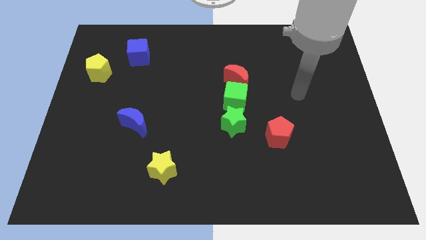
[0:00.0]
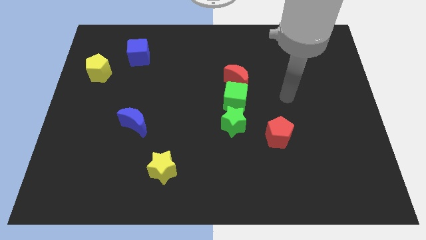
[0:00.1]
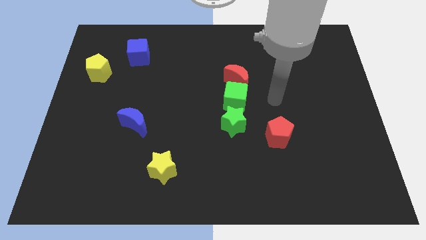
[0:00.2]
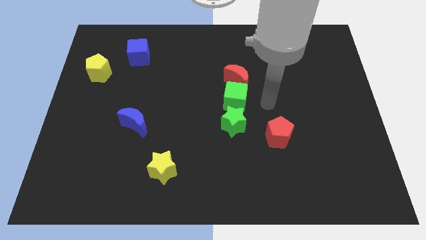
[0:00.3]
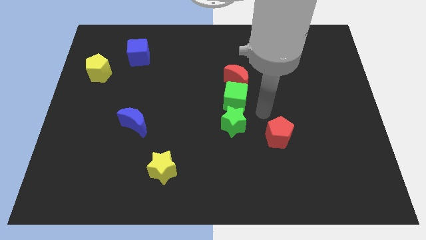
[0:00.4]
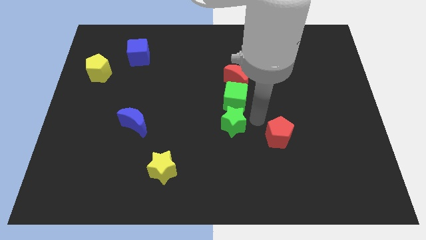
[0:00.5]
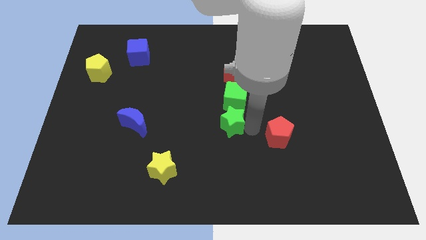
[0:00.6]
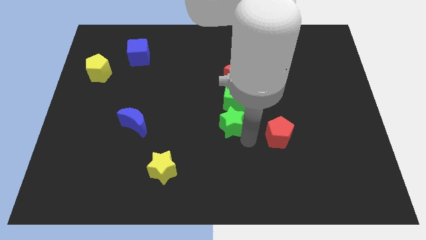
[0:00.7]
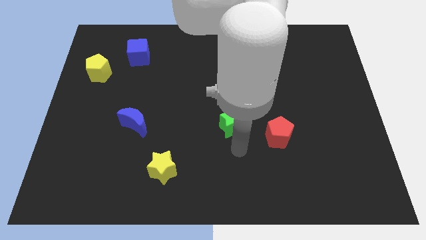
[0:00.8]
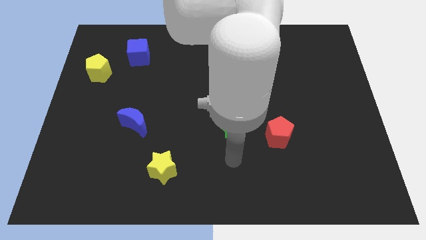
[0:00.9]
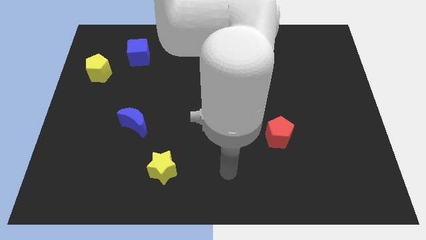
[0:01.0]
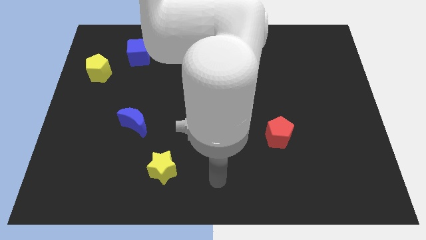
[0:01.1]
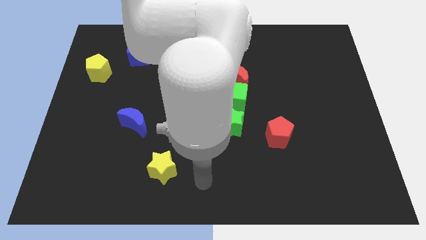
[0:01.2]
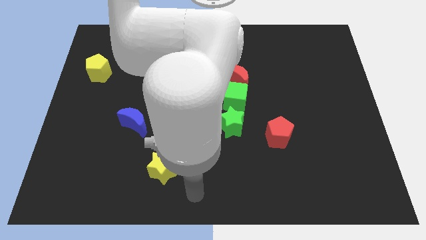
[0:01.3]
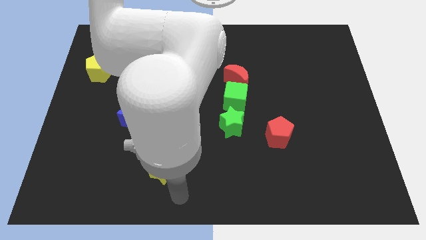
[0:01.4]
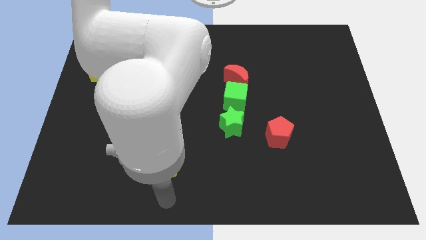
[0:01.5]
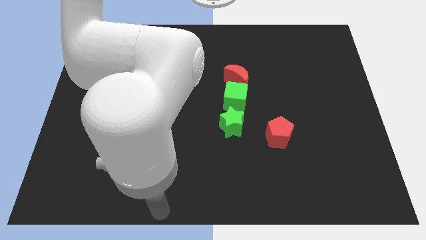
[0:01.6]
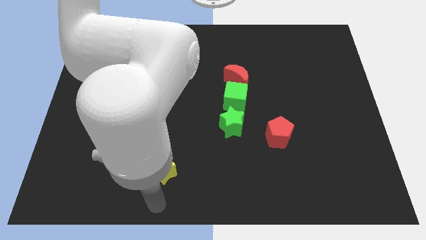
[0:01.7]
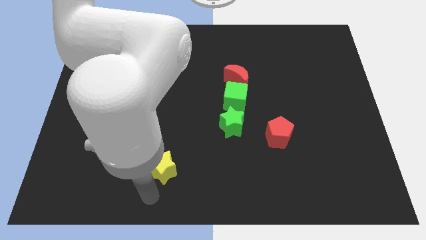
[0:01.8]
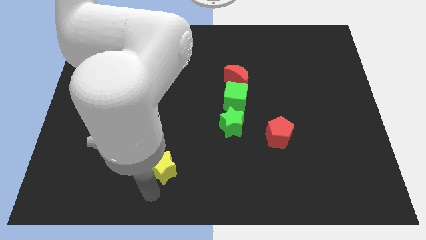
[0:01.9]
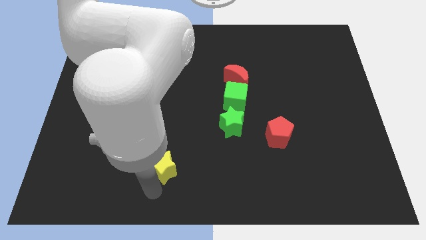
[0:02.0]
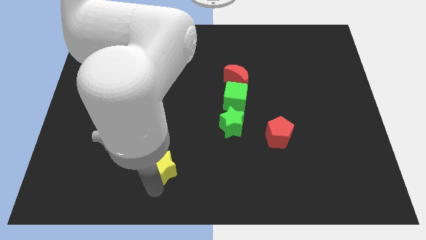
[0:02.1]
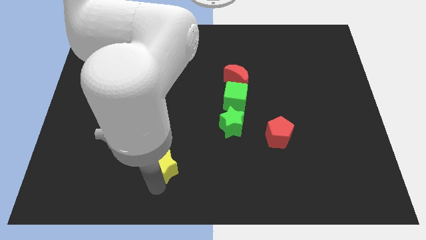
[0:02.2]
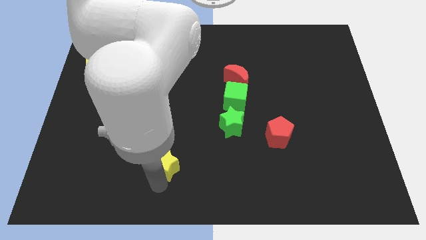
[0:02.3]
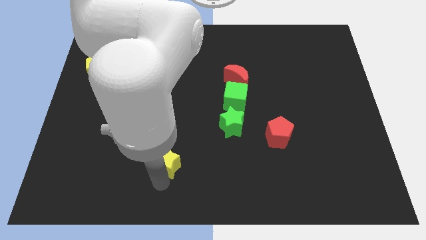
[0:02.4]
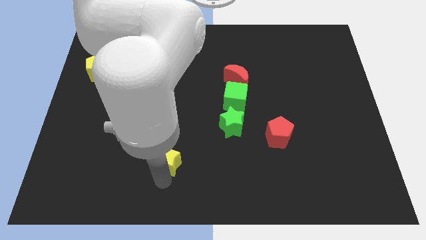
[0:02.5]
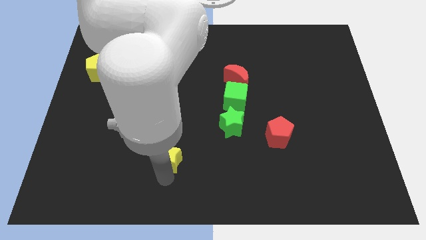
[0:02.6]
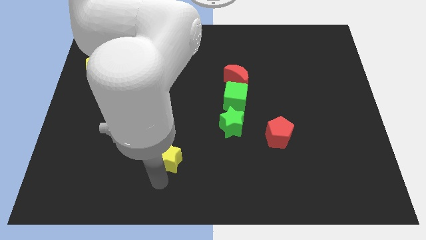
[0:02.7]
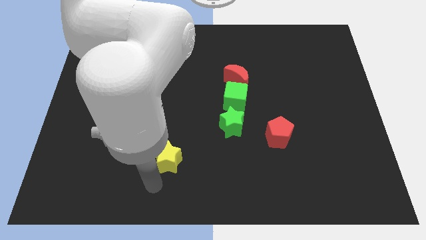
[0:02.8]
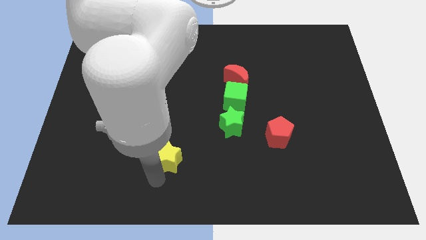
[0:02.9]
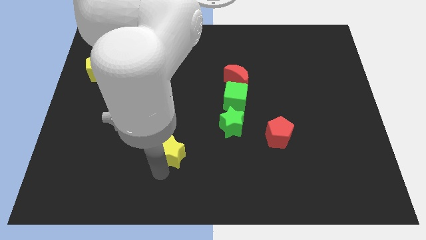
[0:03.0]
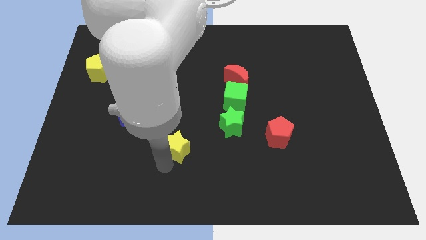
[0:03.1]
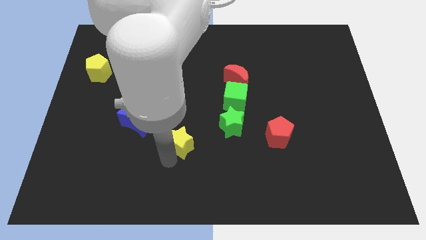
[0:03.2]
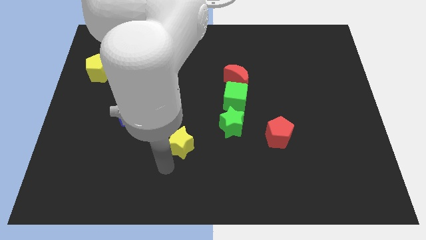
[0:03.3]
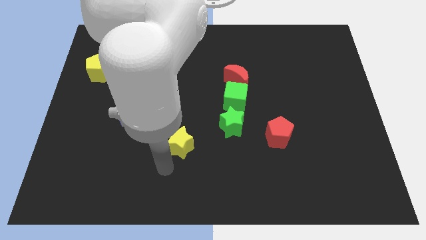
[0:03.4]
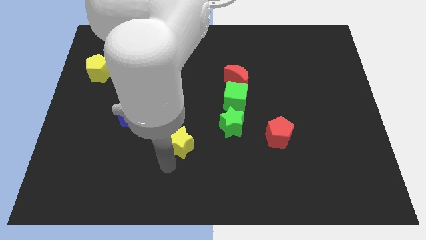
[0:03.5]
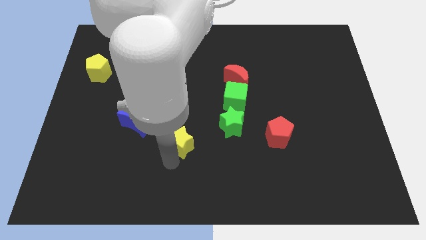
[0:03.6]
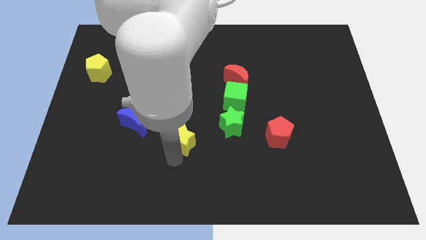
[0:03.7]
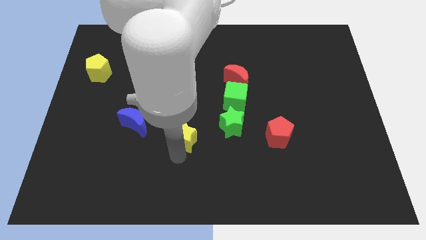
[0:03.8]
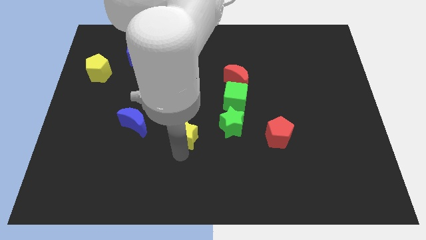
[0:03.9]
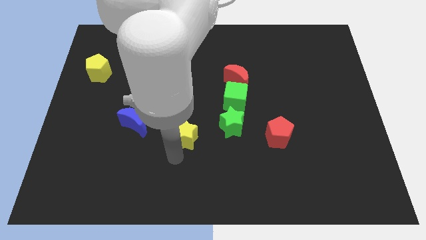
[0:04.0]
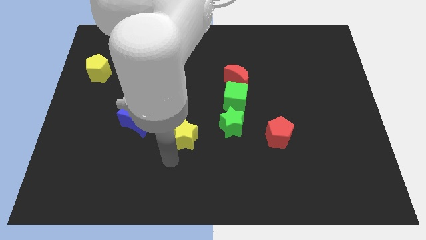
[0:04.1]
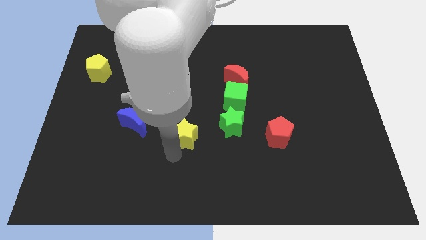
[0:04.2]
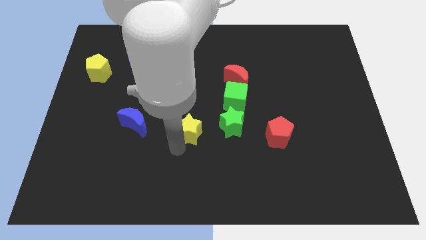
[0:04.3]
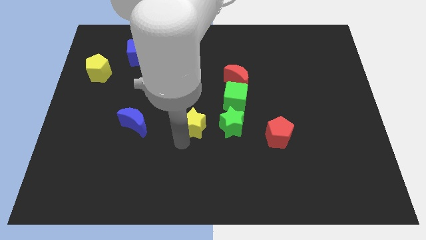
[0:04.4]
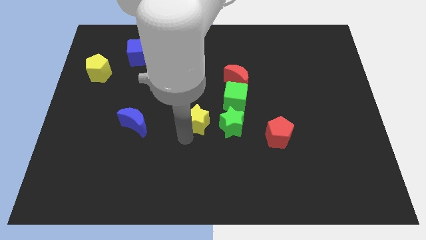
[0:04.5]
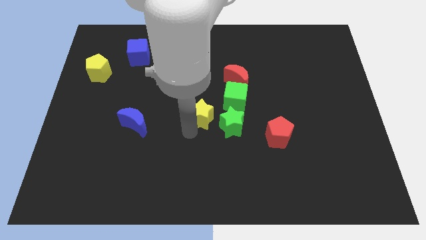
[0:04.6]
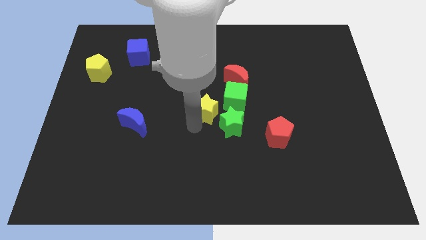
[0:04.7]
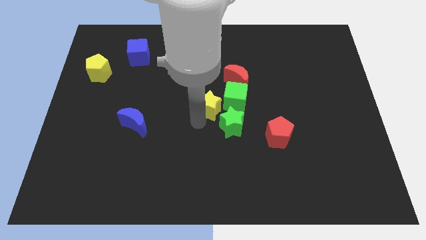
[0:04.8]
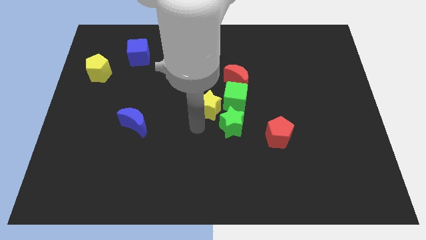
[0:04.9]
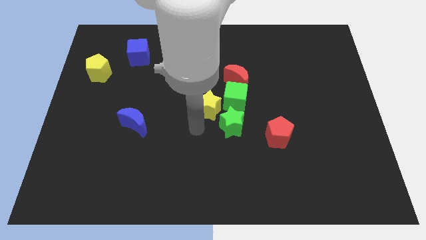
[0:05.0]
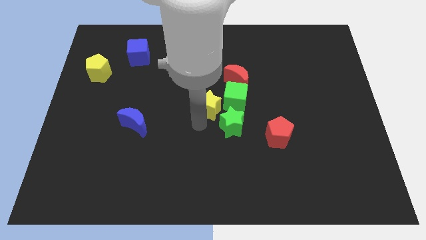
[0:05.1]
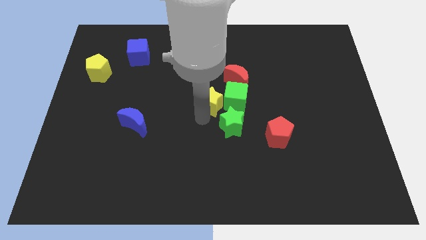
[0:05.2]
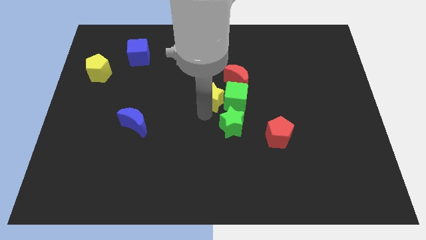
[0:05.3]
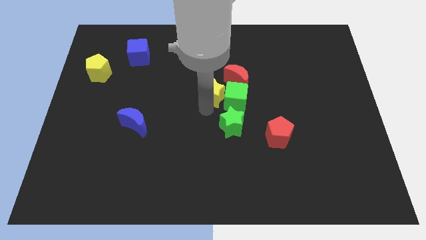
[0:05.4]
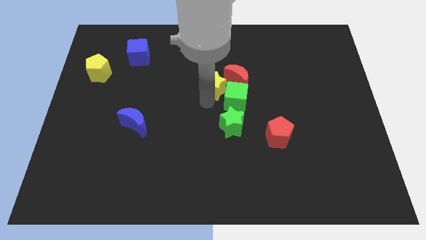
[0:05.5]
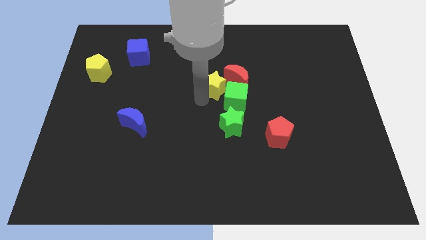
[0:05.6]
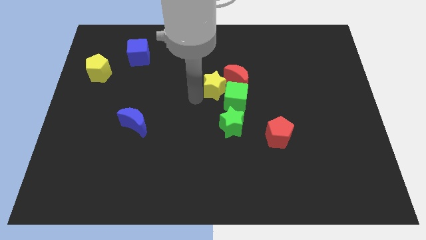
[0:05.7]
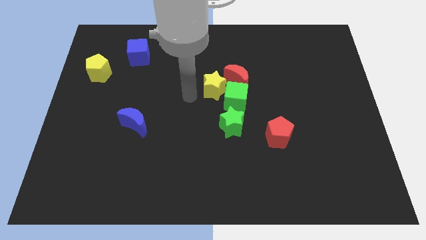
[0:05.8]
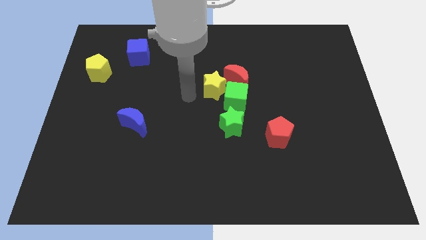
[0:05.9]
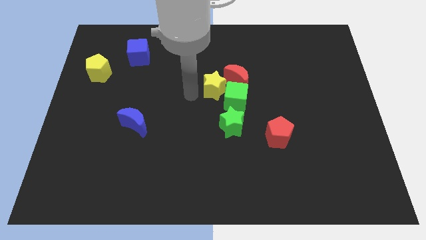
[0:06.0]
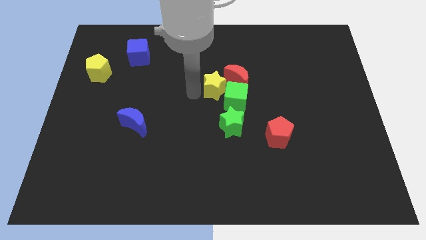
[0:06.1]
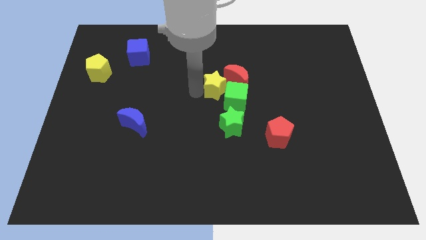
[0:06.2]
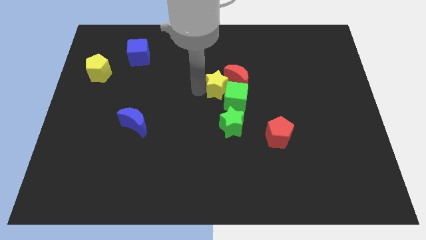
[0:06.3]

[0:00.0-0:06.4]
slide the yellow star to the red moon

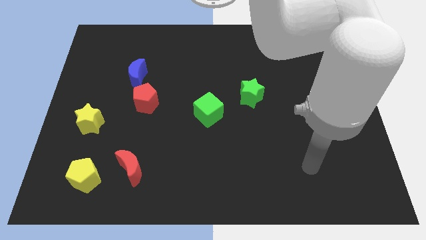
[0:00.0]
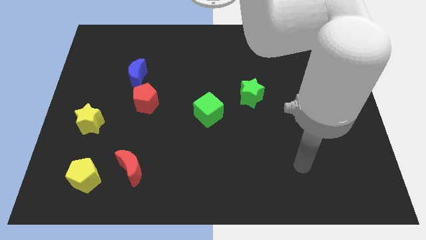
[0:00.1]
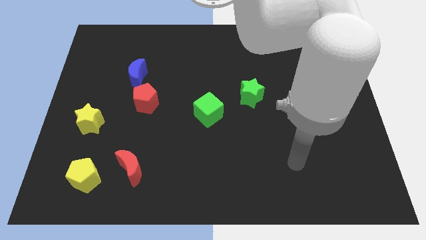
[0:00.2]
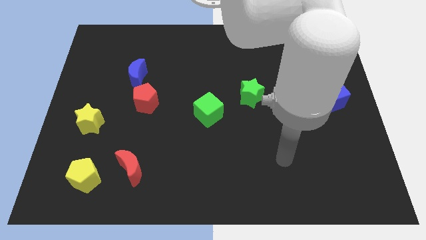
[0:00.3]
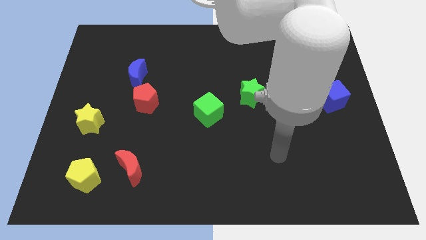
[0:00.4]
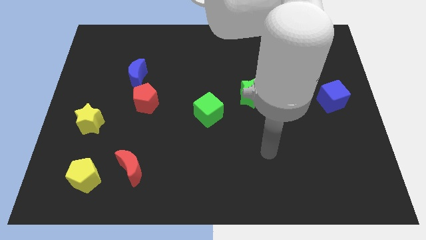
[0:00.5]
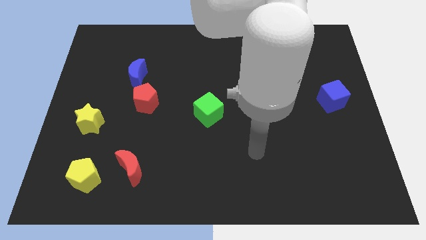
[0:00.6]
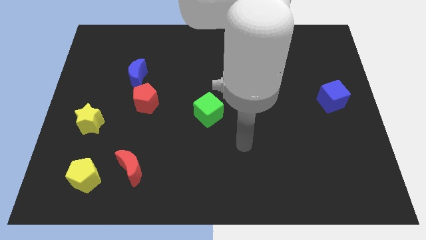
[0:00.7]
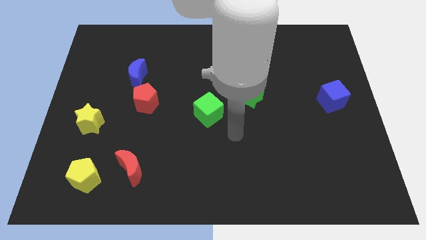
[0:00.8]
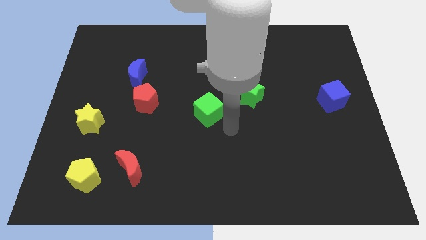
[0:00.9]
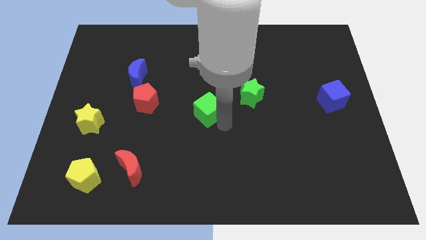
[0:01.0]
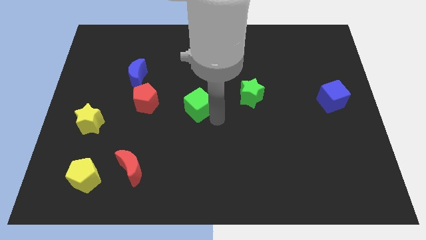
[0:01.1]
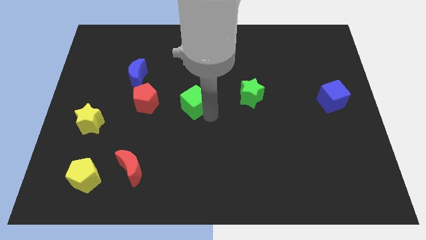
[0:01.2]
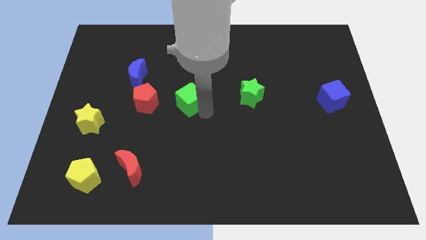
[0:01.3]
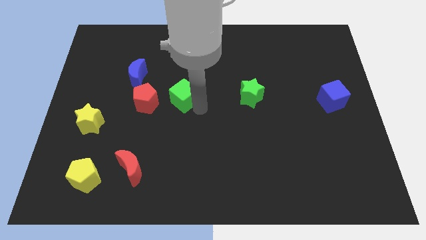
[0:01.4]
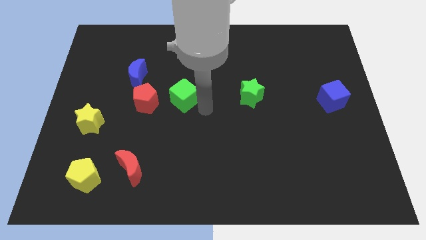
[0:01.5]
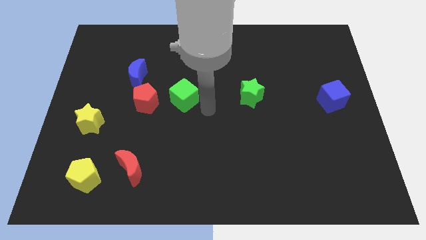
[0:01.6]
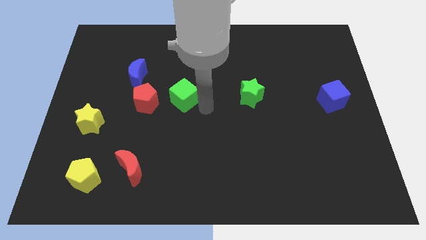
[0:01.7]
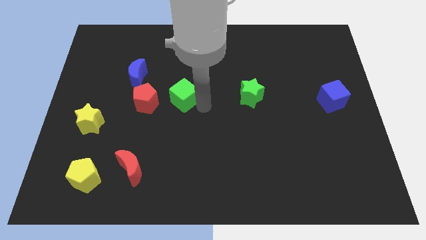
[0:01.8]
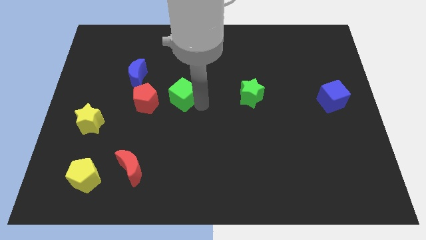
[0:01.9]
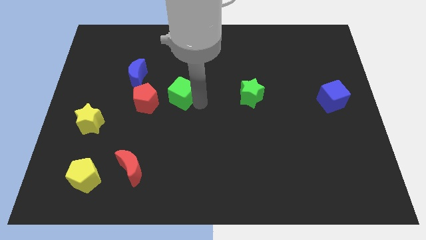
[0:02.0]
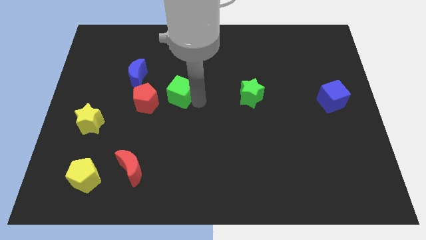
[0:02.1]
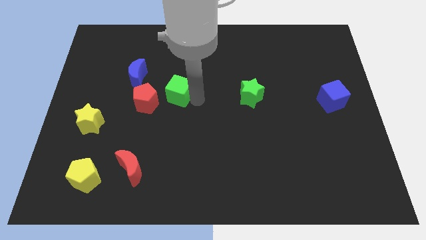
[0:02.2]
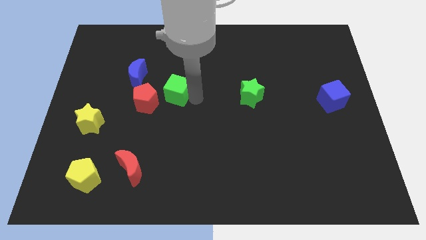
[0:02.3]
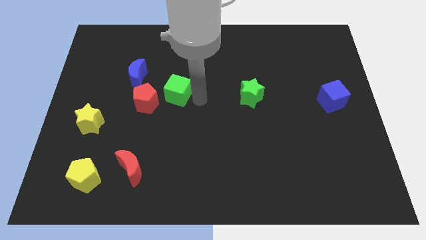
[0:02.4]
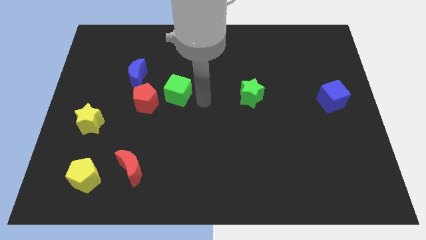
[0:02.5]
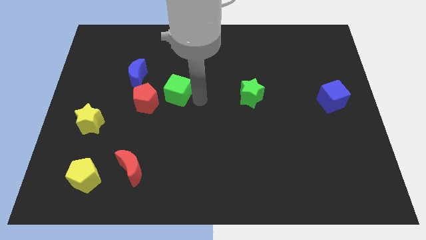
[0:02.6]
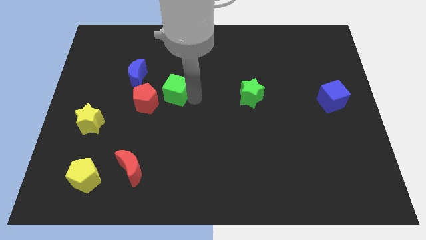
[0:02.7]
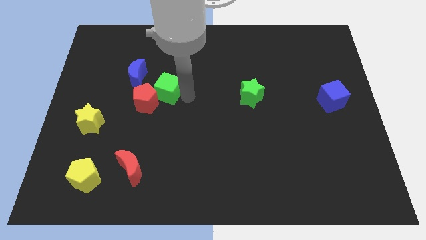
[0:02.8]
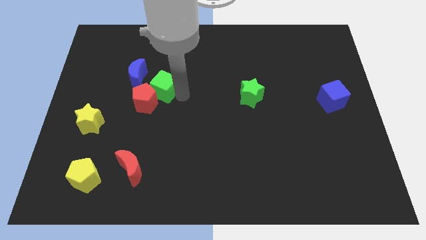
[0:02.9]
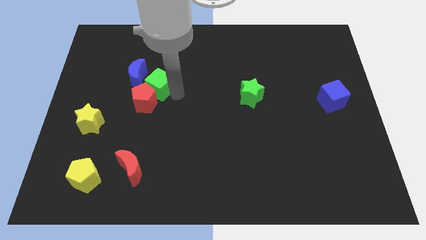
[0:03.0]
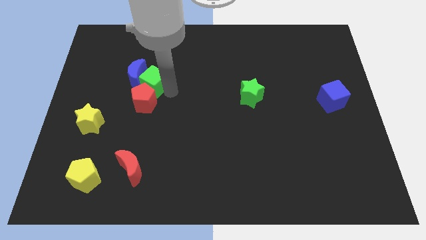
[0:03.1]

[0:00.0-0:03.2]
push the green cube to the blue moon
